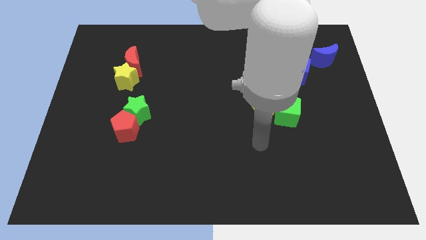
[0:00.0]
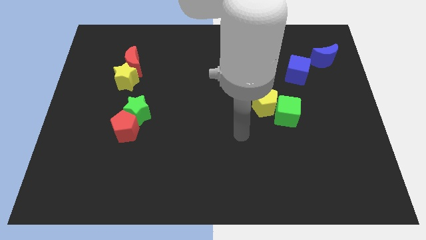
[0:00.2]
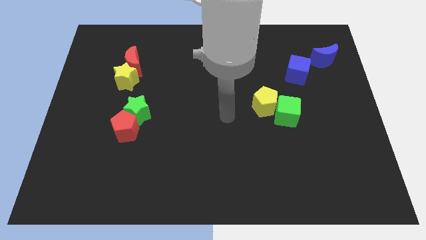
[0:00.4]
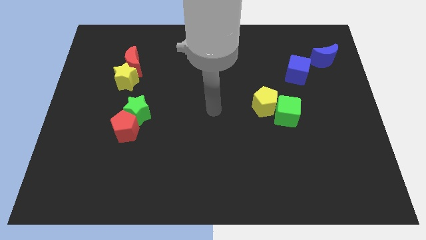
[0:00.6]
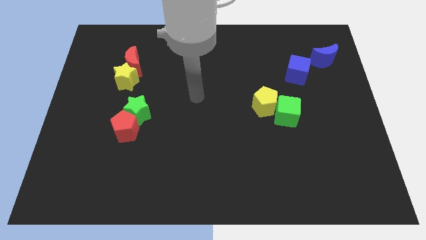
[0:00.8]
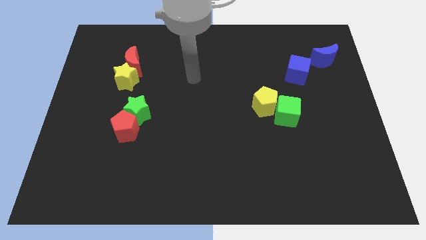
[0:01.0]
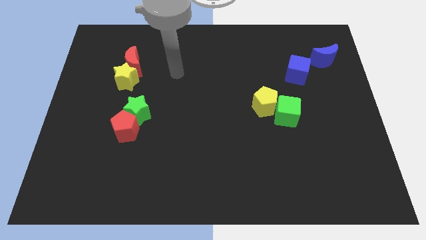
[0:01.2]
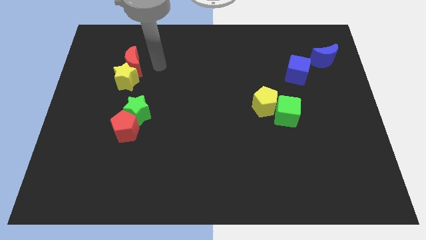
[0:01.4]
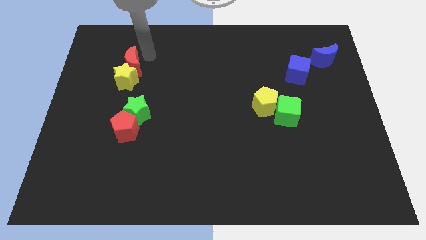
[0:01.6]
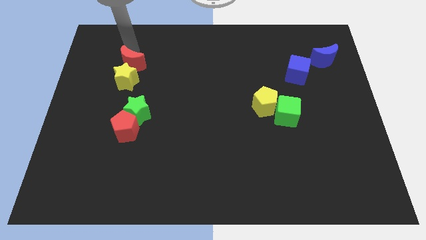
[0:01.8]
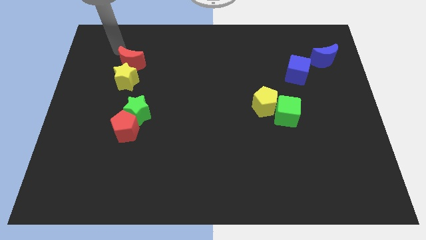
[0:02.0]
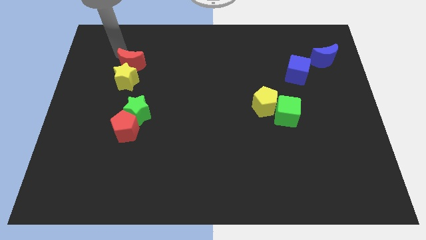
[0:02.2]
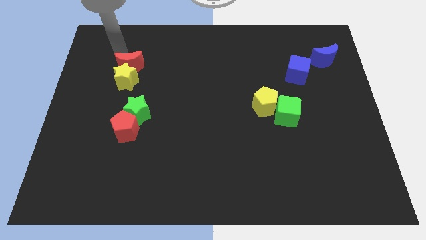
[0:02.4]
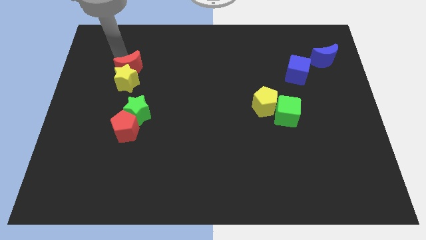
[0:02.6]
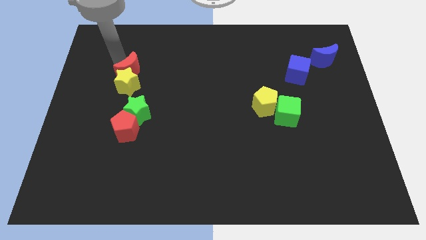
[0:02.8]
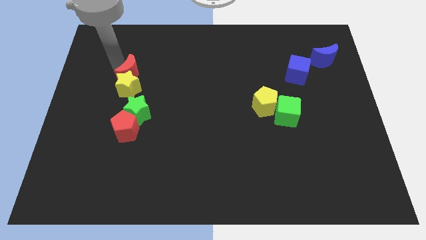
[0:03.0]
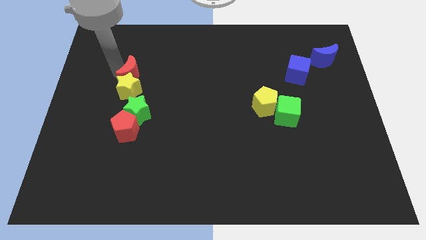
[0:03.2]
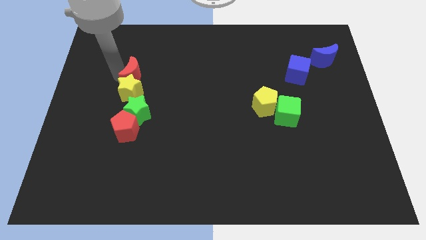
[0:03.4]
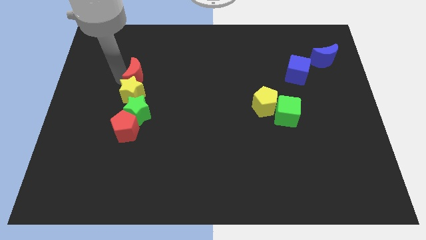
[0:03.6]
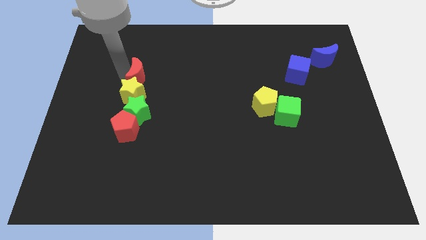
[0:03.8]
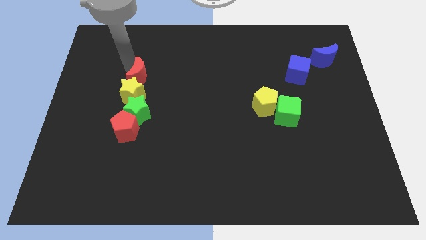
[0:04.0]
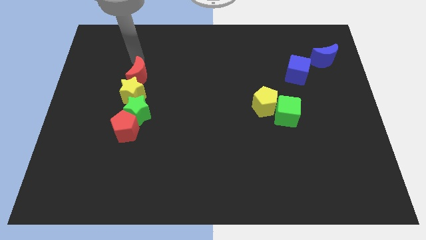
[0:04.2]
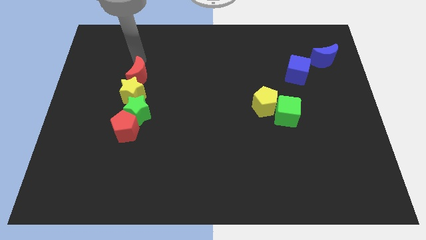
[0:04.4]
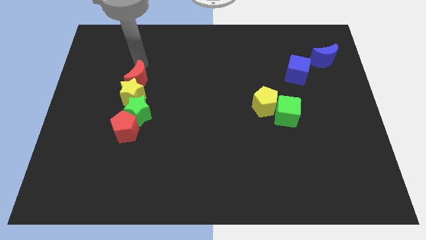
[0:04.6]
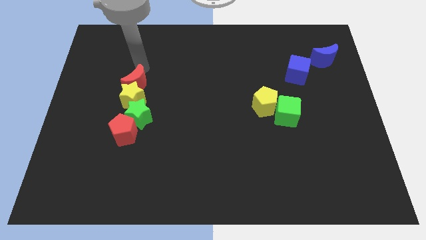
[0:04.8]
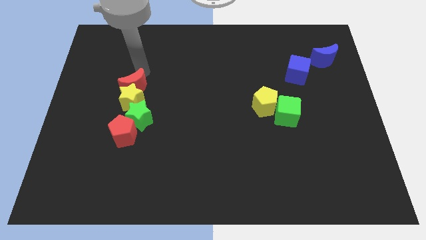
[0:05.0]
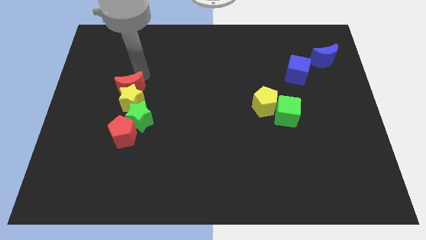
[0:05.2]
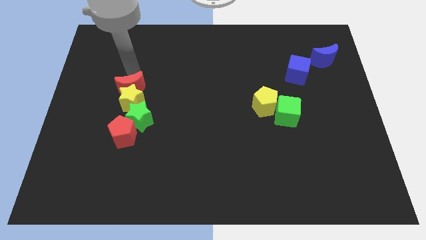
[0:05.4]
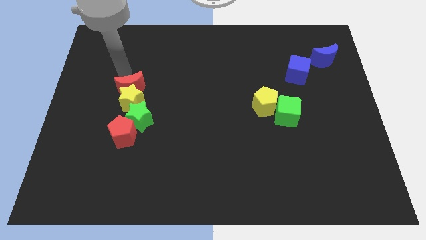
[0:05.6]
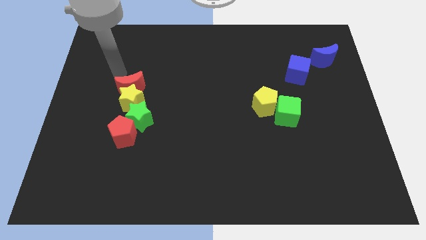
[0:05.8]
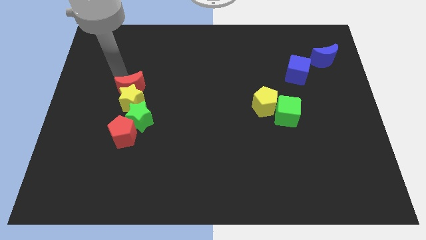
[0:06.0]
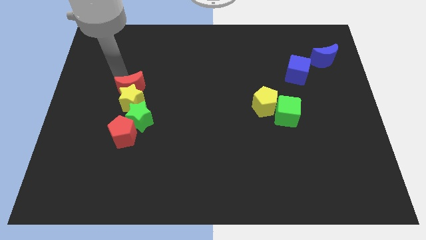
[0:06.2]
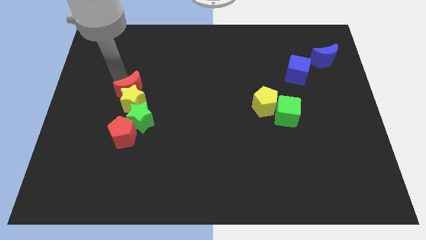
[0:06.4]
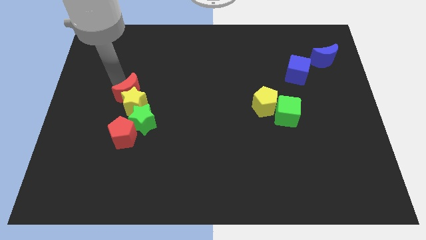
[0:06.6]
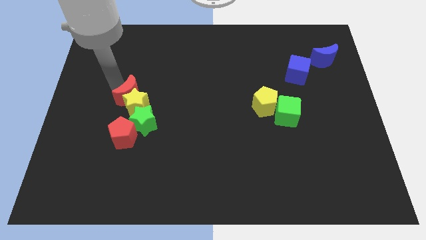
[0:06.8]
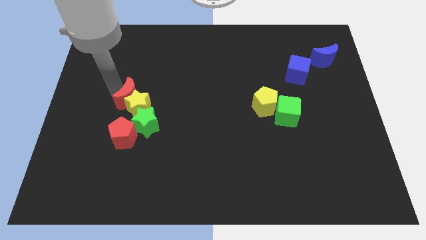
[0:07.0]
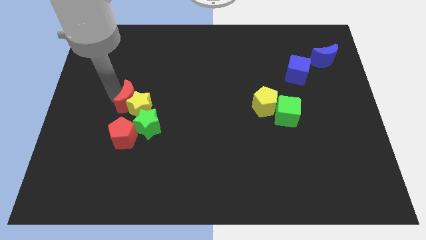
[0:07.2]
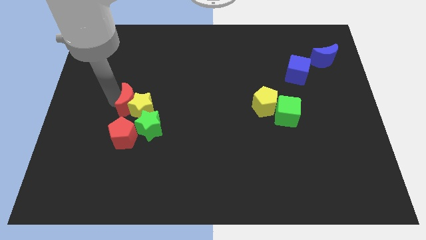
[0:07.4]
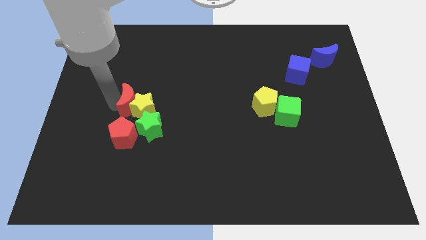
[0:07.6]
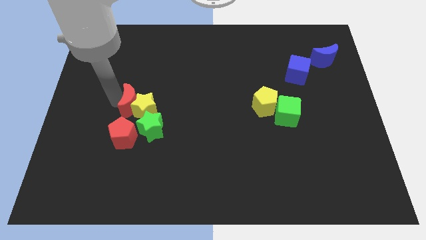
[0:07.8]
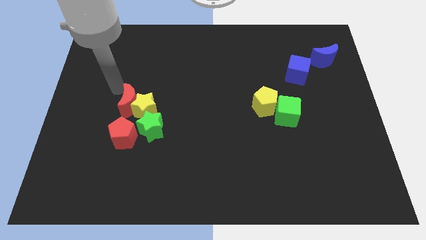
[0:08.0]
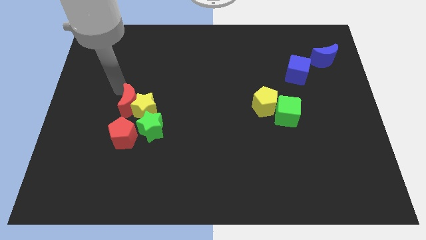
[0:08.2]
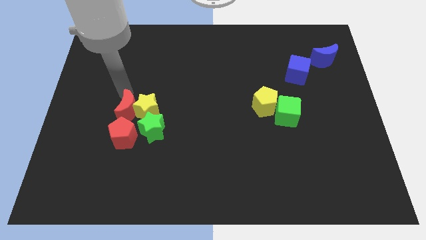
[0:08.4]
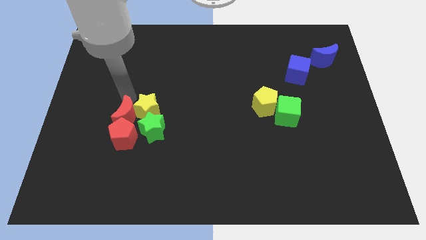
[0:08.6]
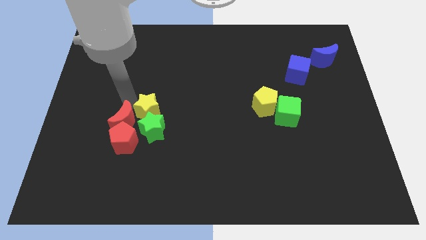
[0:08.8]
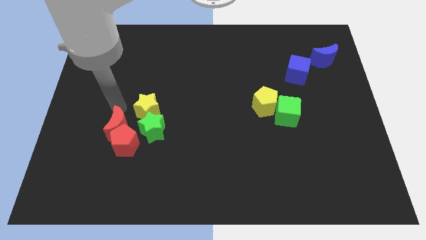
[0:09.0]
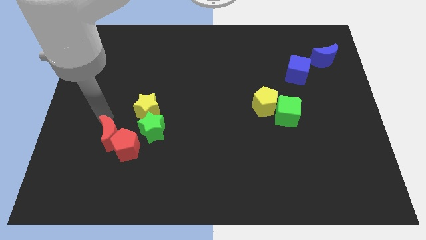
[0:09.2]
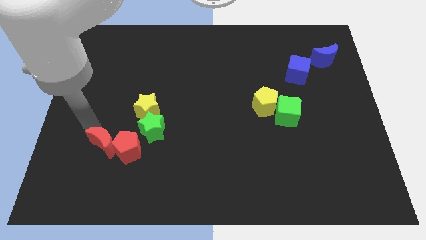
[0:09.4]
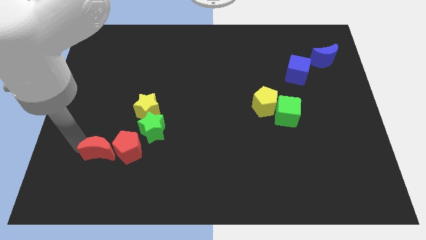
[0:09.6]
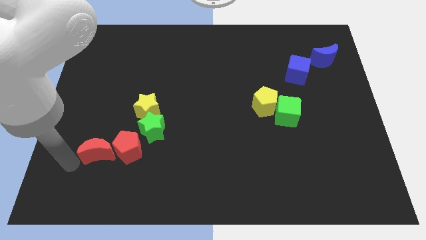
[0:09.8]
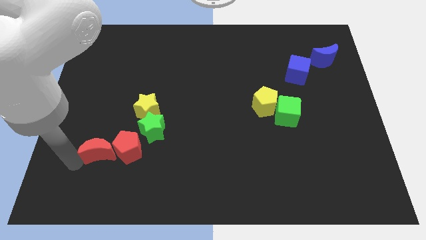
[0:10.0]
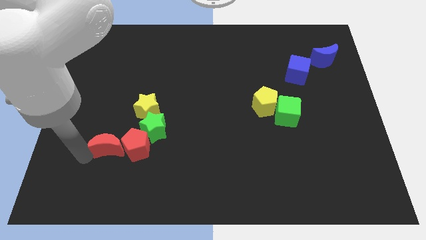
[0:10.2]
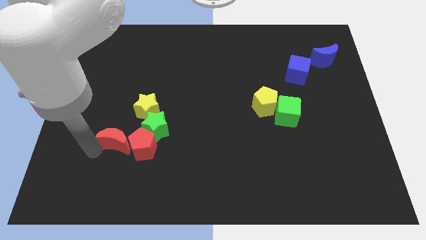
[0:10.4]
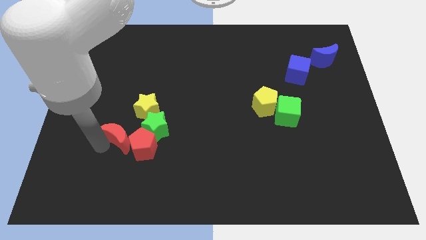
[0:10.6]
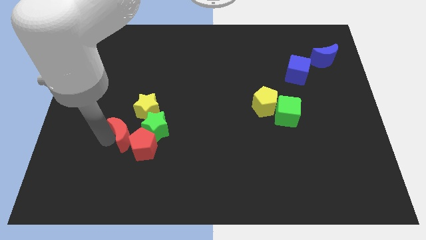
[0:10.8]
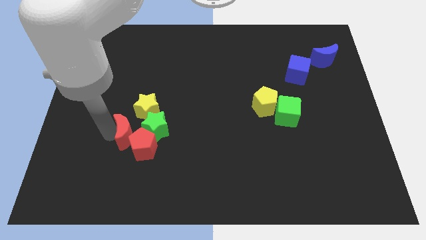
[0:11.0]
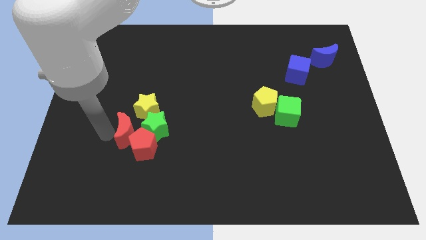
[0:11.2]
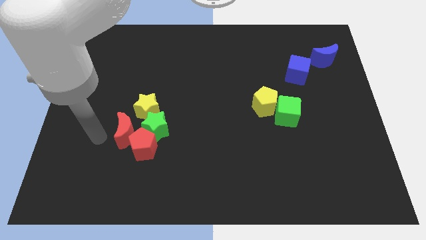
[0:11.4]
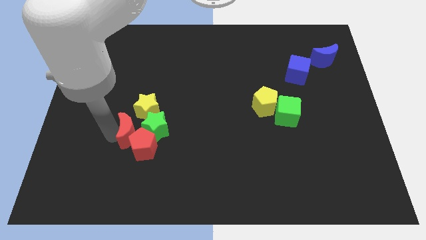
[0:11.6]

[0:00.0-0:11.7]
push the red moon next to the green star

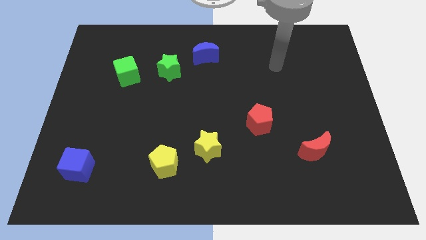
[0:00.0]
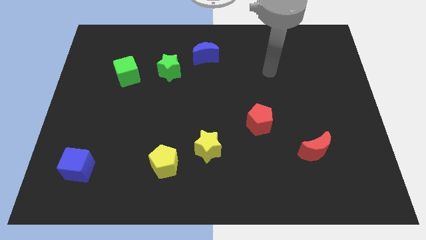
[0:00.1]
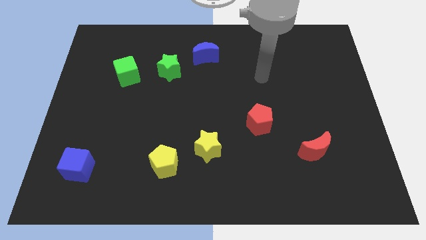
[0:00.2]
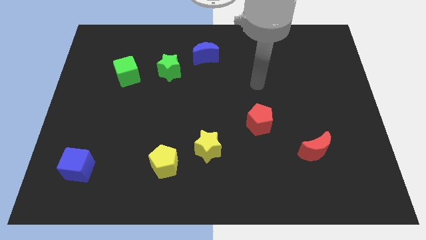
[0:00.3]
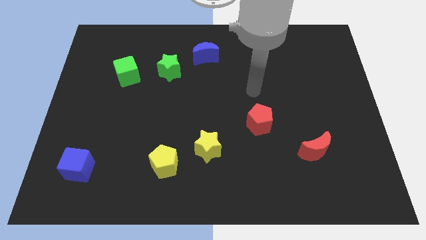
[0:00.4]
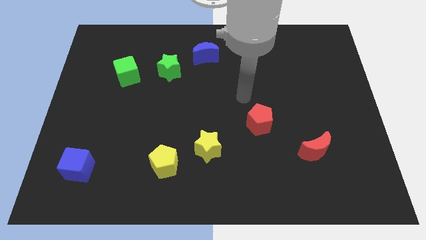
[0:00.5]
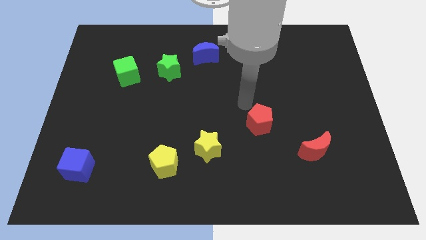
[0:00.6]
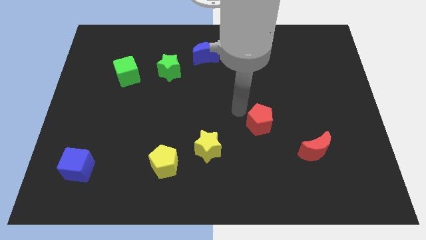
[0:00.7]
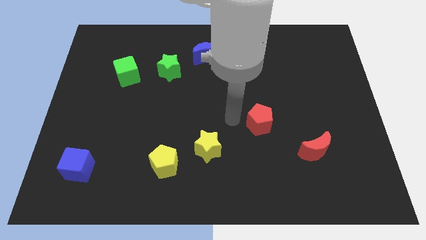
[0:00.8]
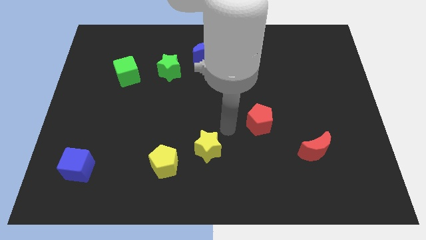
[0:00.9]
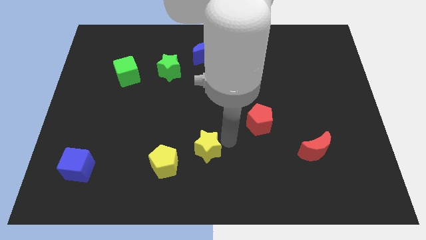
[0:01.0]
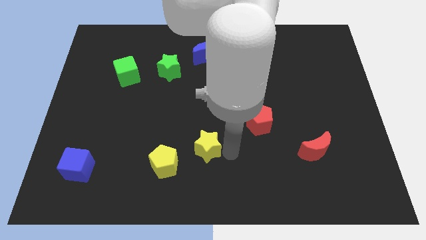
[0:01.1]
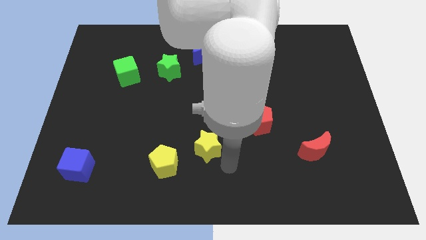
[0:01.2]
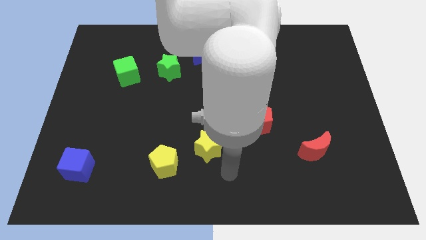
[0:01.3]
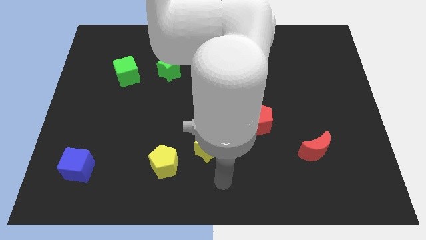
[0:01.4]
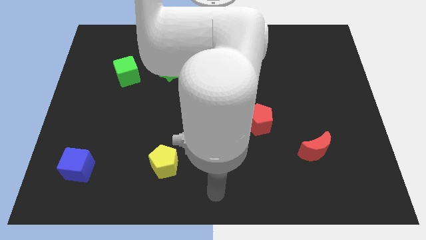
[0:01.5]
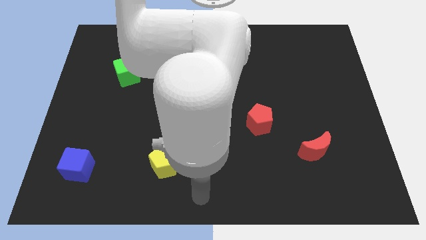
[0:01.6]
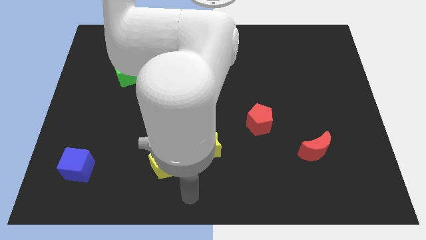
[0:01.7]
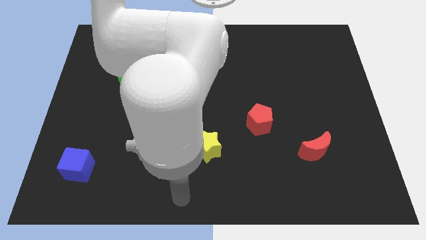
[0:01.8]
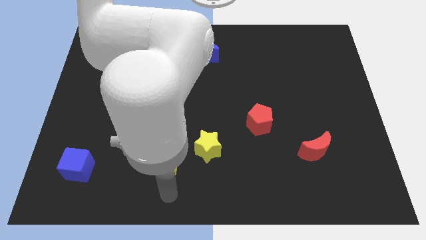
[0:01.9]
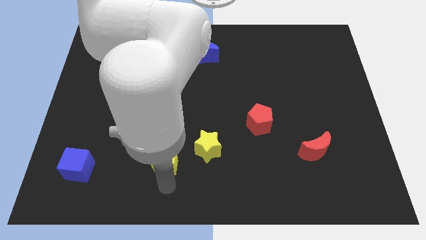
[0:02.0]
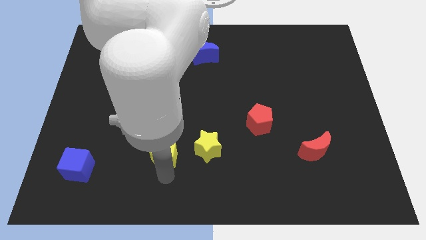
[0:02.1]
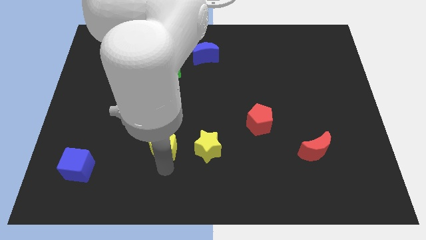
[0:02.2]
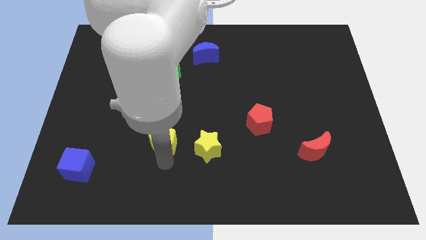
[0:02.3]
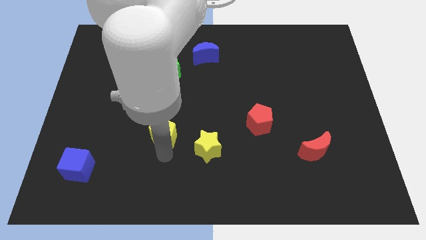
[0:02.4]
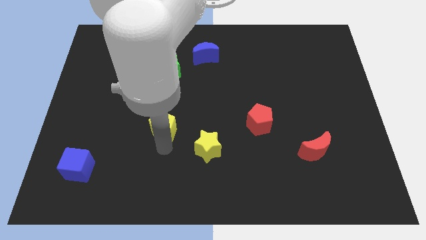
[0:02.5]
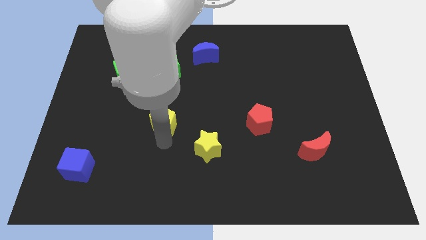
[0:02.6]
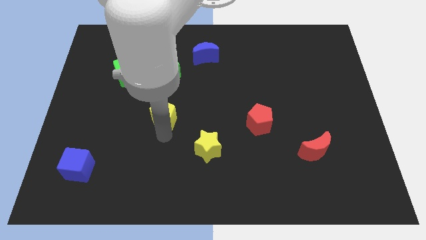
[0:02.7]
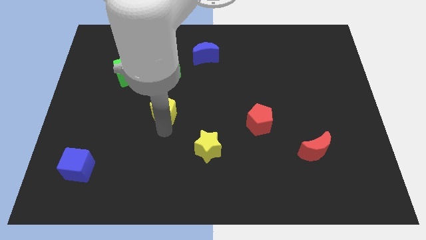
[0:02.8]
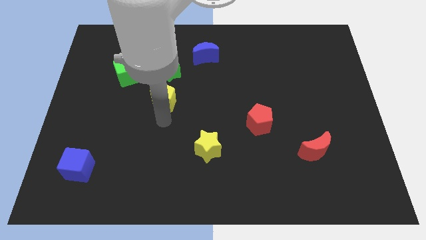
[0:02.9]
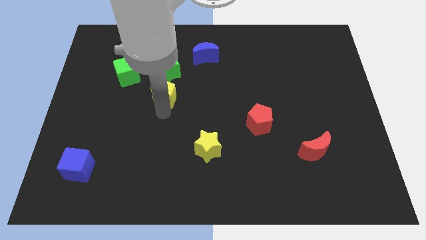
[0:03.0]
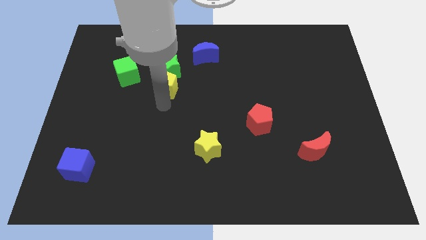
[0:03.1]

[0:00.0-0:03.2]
slide the yellow pentagon to the green star
